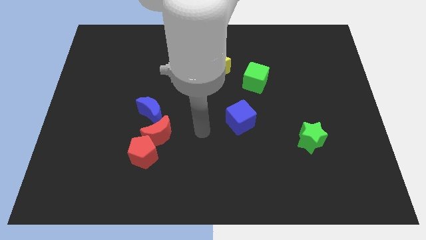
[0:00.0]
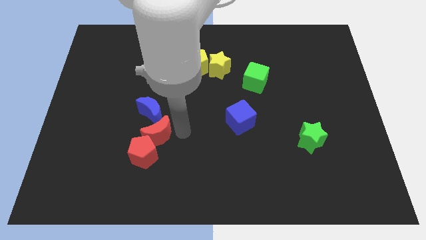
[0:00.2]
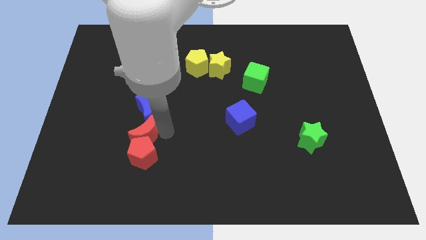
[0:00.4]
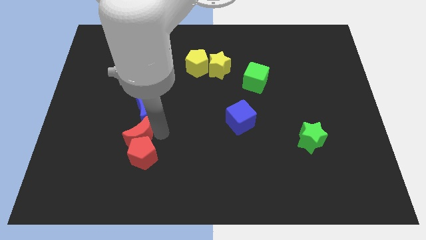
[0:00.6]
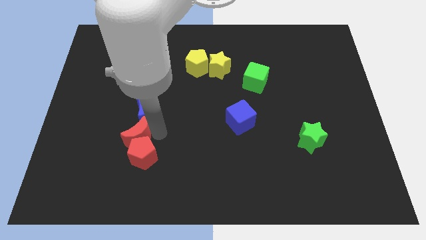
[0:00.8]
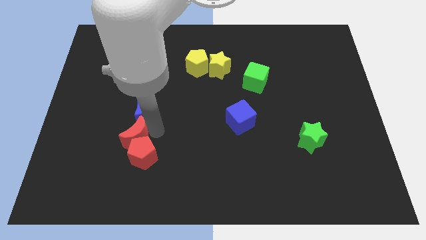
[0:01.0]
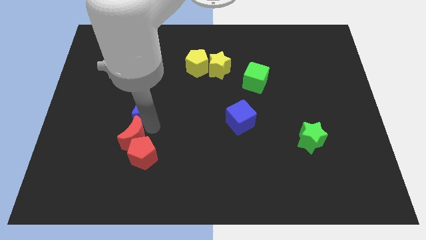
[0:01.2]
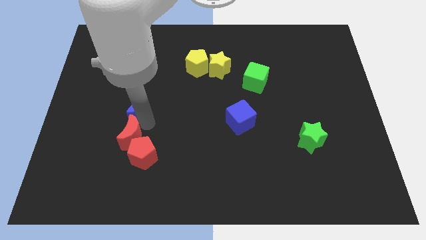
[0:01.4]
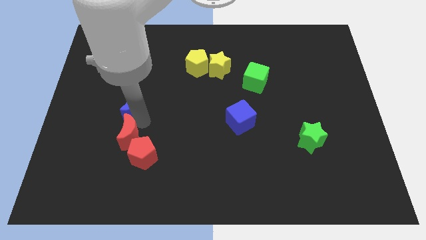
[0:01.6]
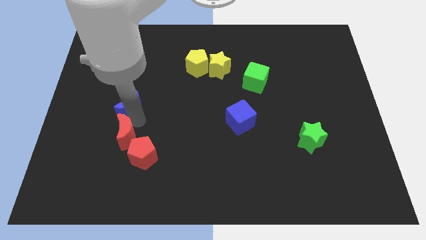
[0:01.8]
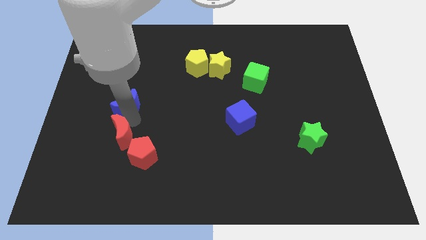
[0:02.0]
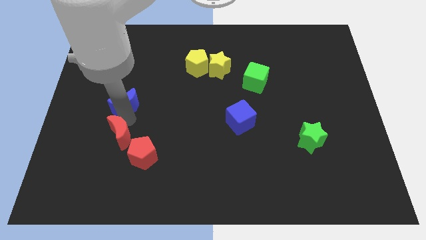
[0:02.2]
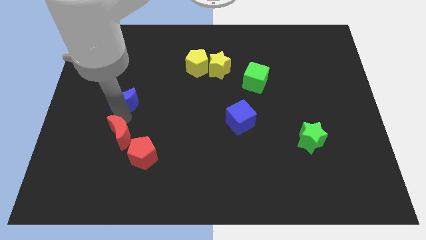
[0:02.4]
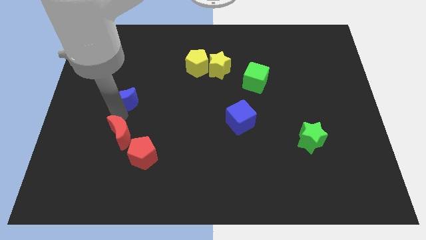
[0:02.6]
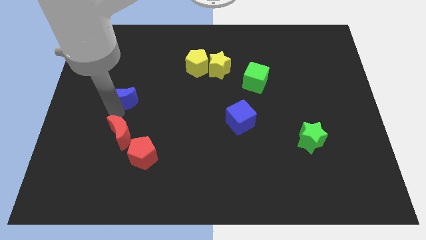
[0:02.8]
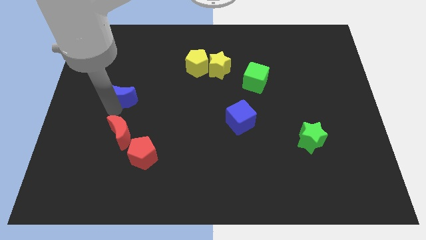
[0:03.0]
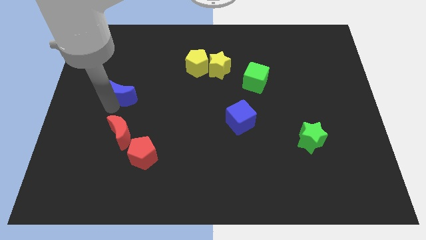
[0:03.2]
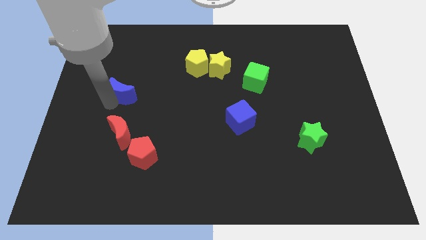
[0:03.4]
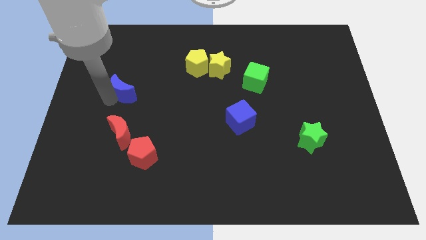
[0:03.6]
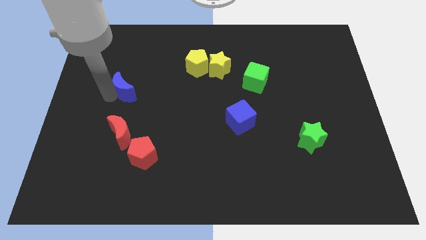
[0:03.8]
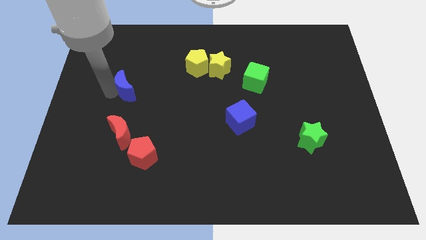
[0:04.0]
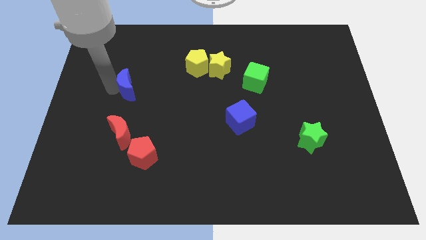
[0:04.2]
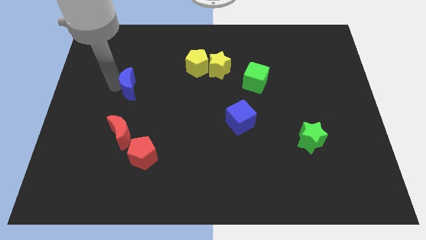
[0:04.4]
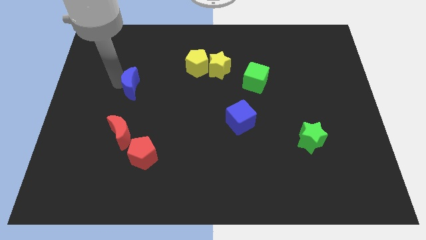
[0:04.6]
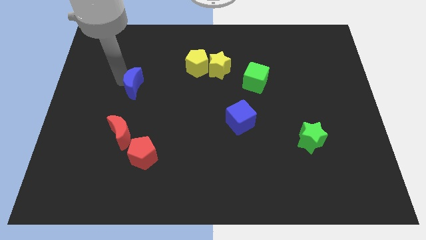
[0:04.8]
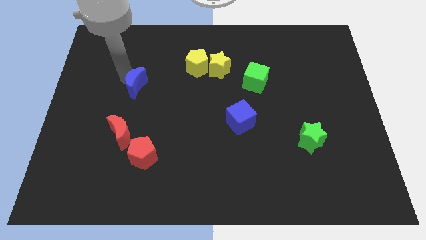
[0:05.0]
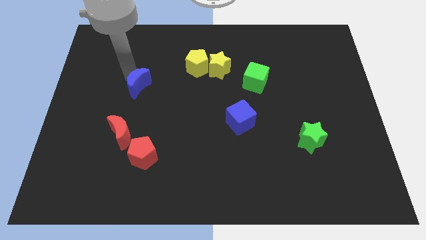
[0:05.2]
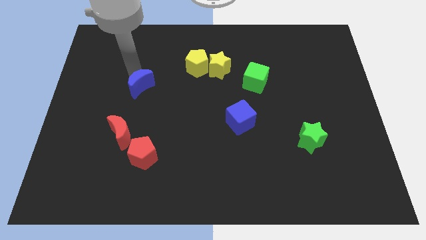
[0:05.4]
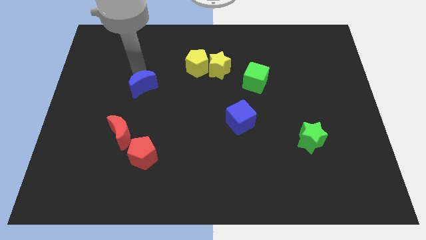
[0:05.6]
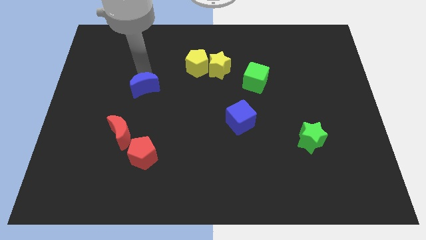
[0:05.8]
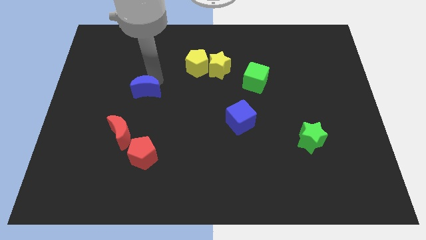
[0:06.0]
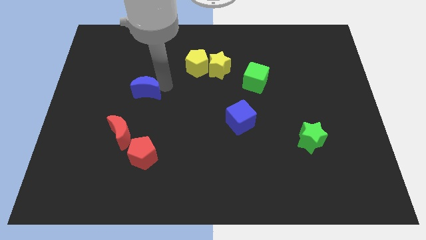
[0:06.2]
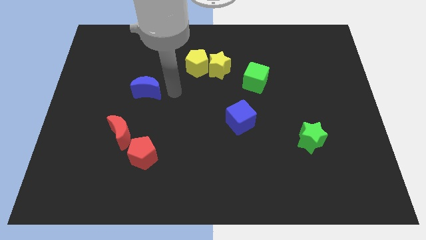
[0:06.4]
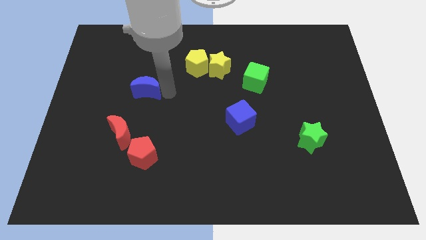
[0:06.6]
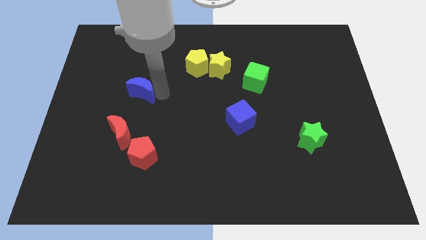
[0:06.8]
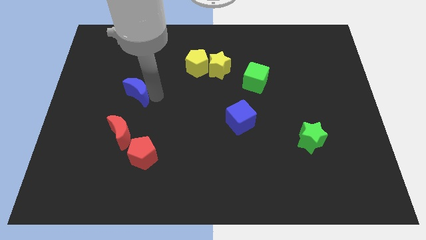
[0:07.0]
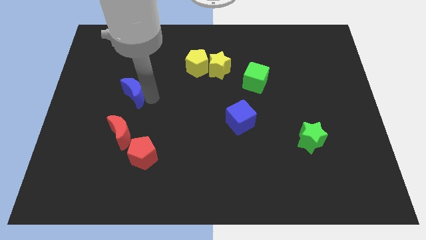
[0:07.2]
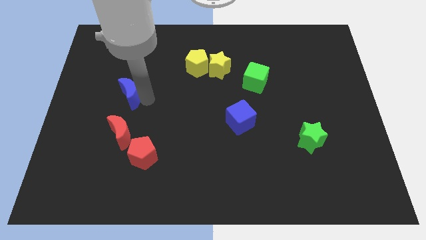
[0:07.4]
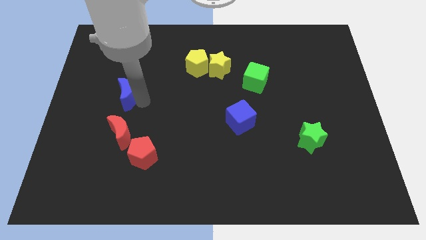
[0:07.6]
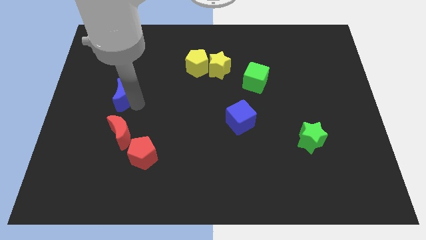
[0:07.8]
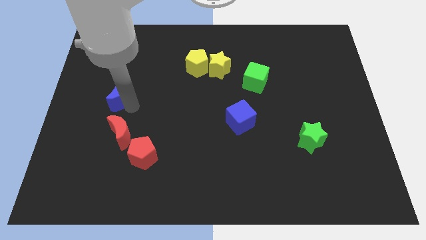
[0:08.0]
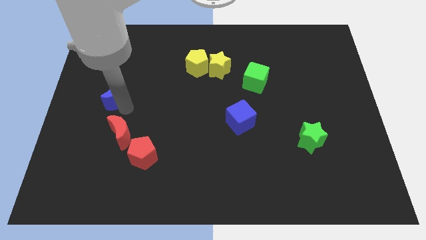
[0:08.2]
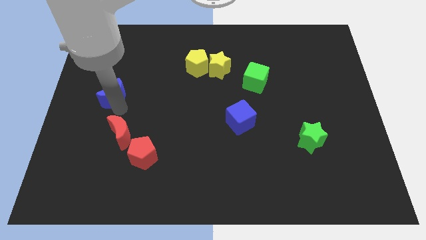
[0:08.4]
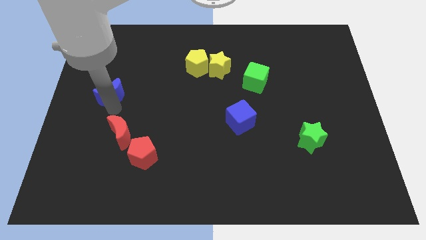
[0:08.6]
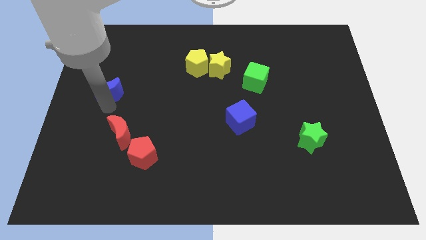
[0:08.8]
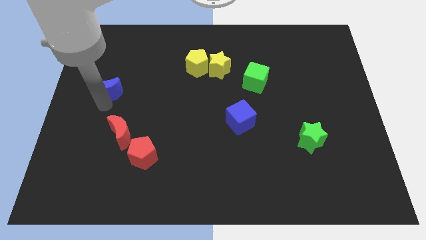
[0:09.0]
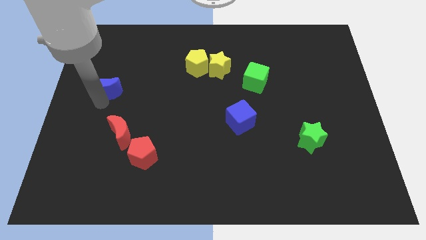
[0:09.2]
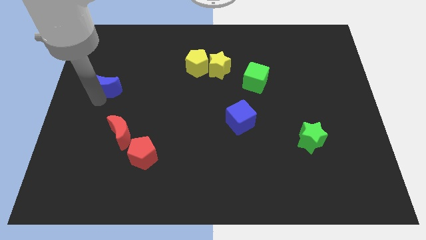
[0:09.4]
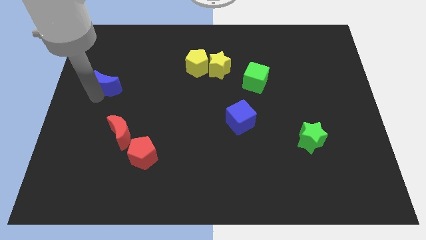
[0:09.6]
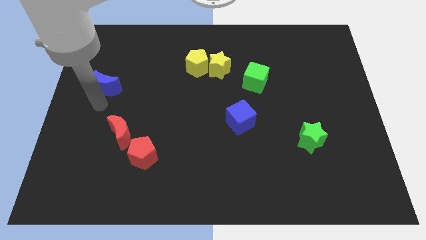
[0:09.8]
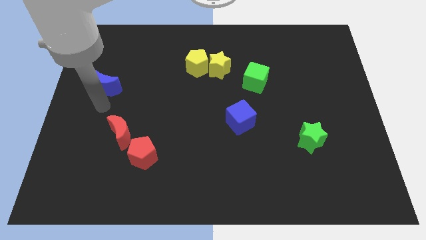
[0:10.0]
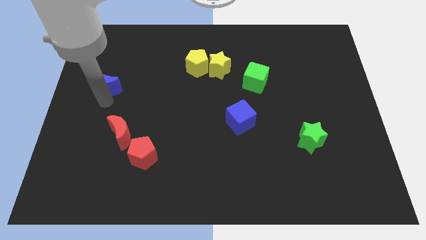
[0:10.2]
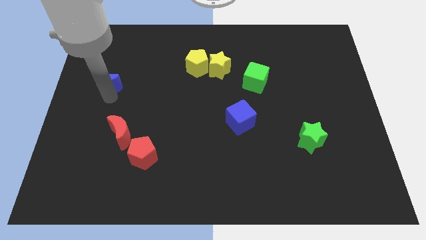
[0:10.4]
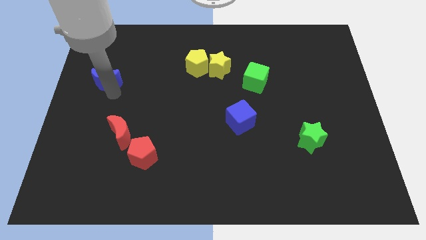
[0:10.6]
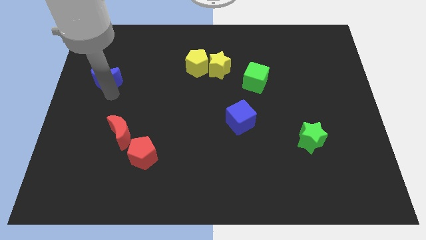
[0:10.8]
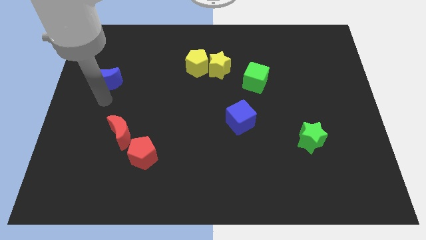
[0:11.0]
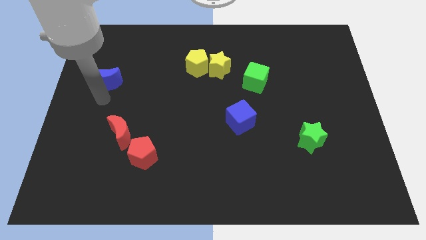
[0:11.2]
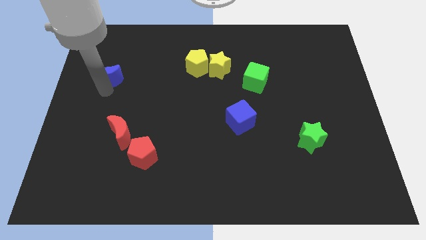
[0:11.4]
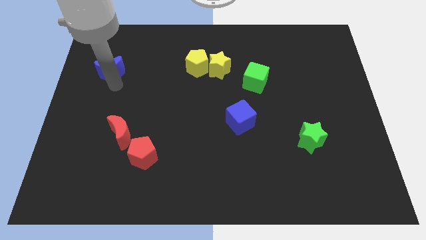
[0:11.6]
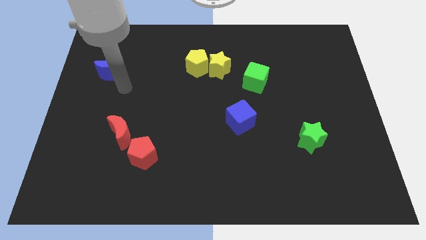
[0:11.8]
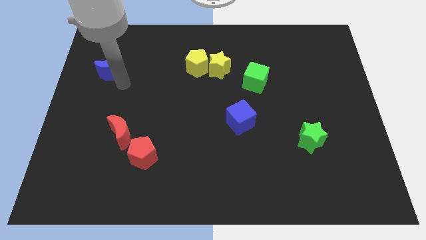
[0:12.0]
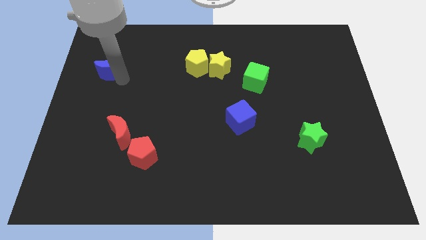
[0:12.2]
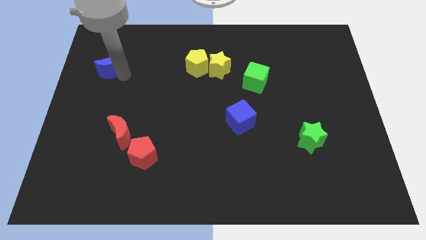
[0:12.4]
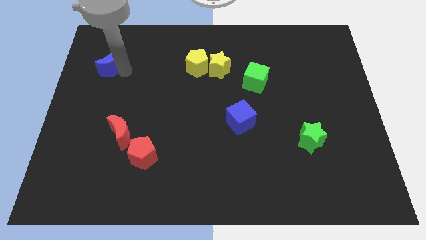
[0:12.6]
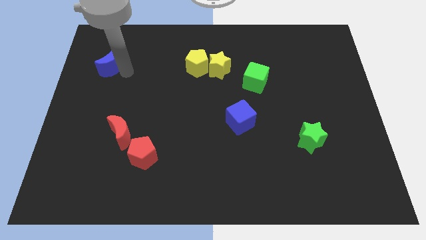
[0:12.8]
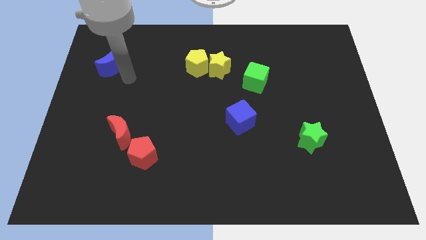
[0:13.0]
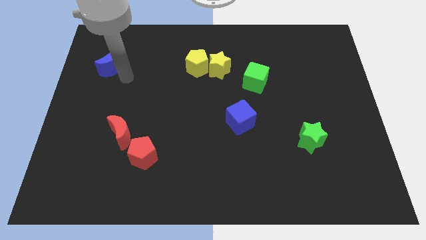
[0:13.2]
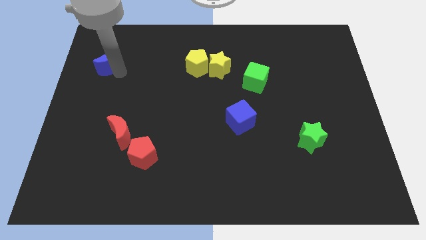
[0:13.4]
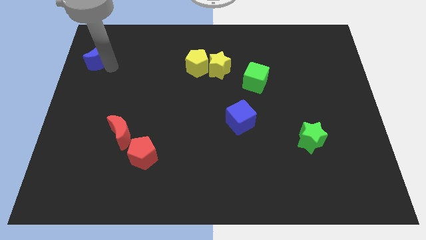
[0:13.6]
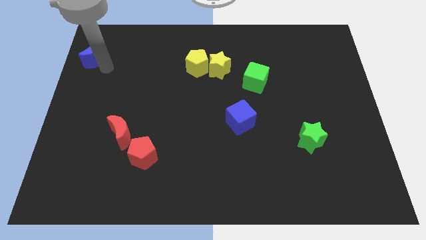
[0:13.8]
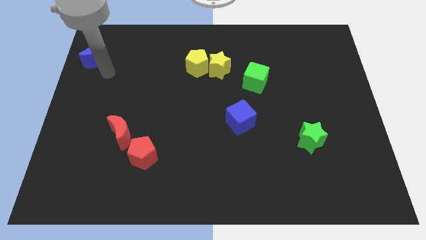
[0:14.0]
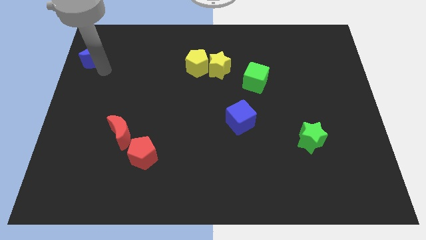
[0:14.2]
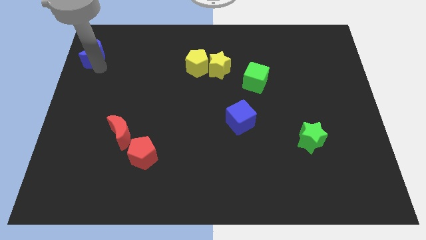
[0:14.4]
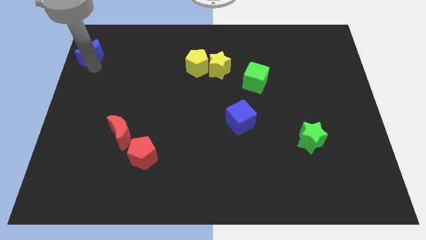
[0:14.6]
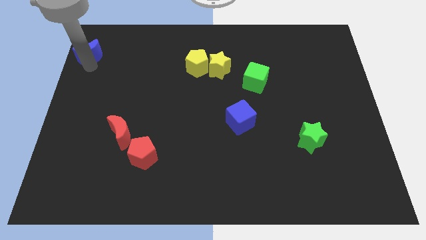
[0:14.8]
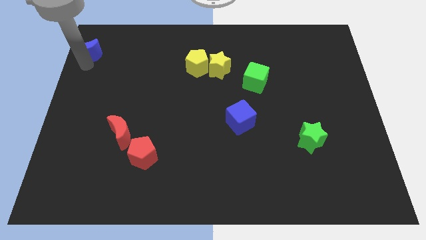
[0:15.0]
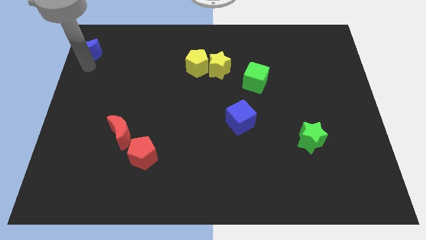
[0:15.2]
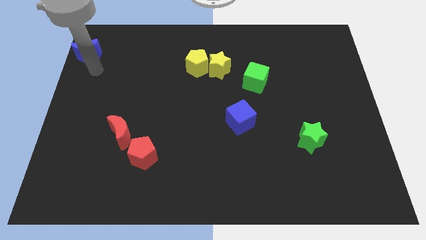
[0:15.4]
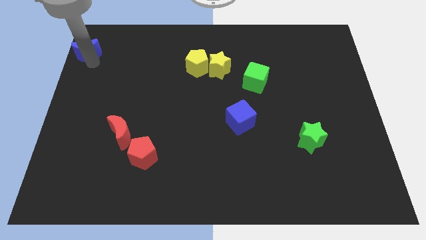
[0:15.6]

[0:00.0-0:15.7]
slide the blue moon to the top left corner
